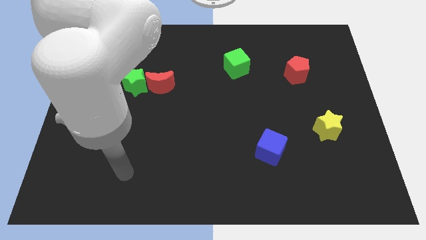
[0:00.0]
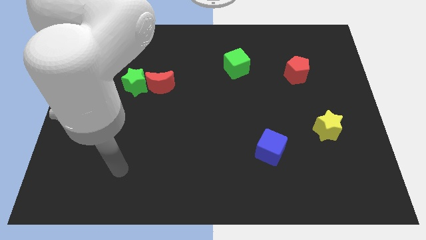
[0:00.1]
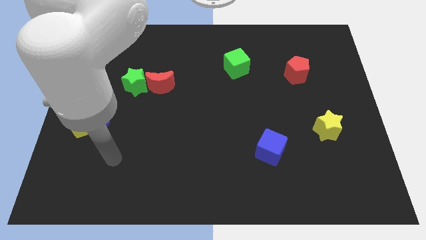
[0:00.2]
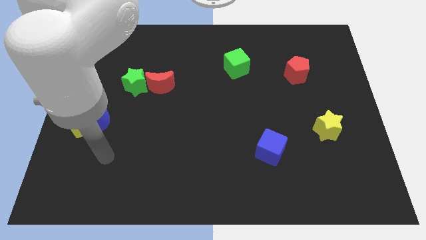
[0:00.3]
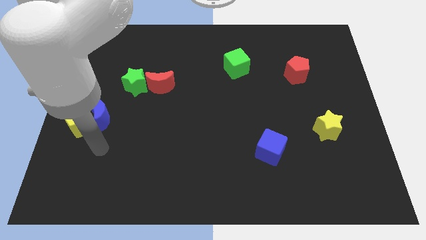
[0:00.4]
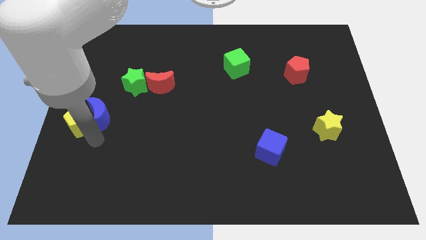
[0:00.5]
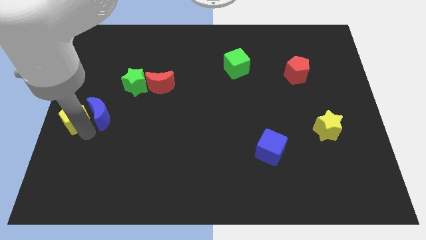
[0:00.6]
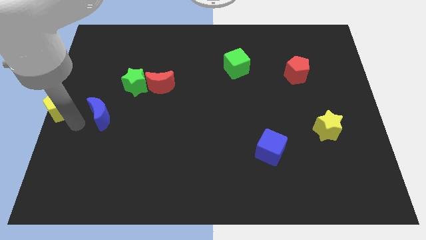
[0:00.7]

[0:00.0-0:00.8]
pull the blue moon apart from the yellow pentagon

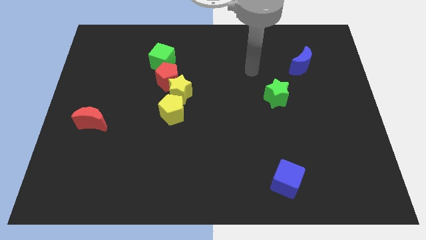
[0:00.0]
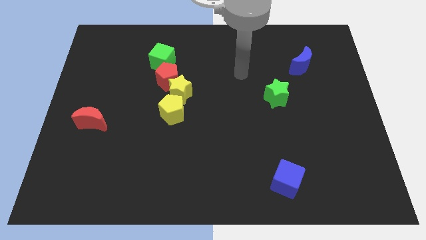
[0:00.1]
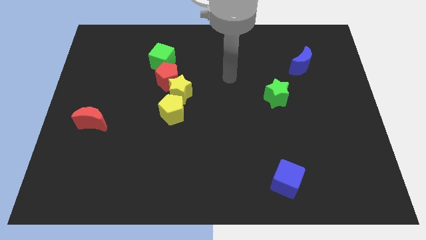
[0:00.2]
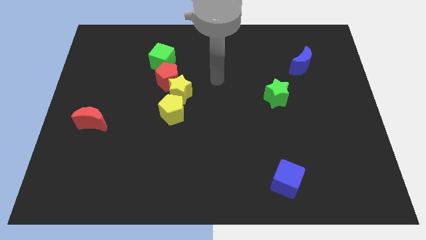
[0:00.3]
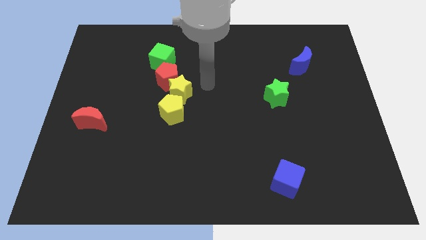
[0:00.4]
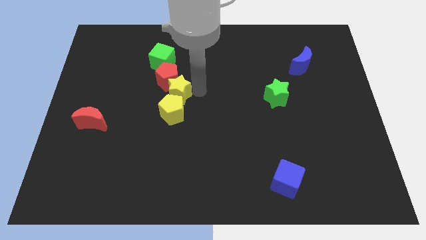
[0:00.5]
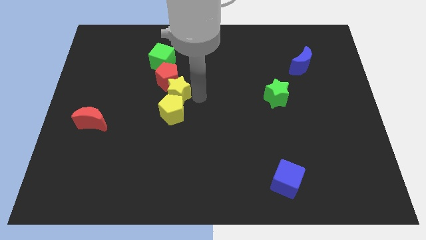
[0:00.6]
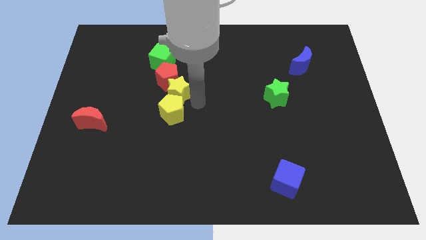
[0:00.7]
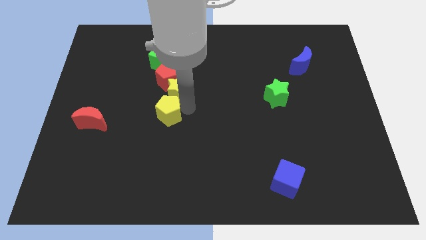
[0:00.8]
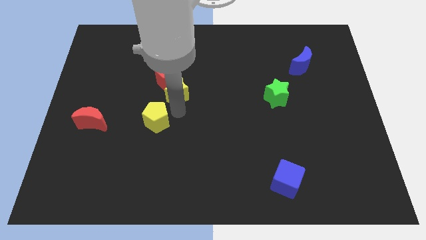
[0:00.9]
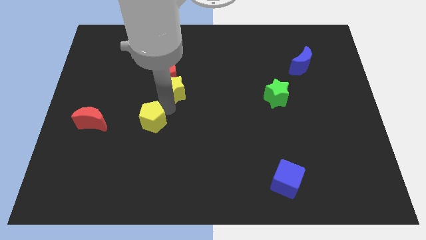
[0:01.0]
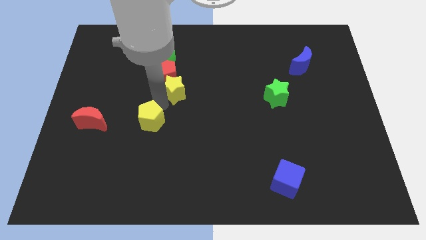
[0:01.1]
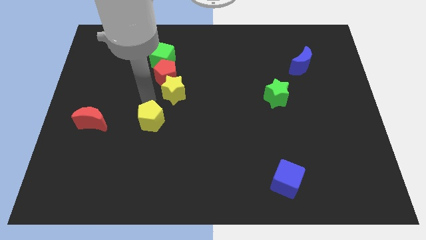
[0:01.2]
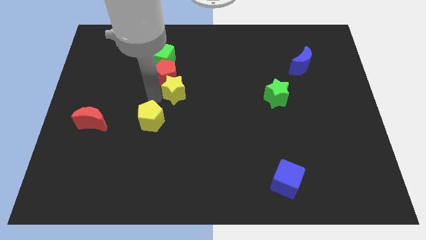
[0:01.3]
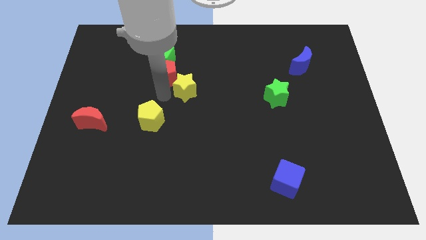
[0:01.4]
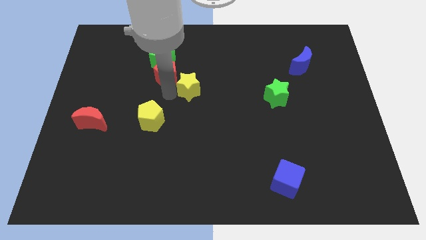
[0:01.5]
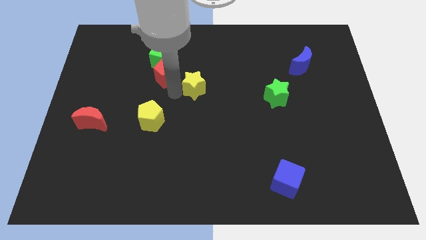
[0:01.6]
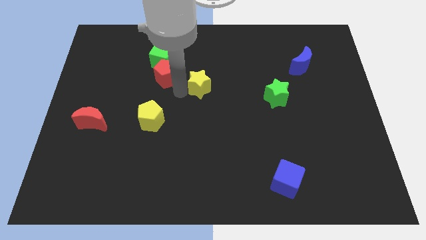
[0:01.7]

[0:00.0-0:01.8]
separate the yellow star from the red pentagon and yellow pentagon

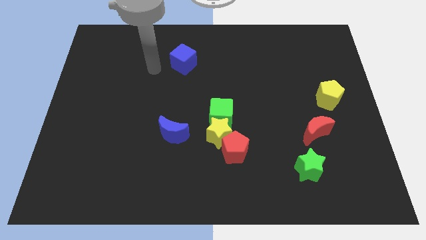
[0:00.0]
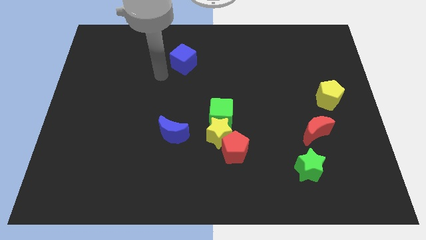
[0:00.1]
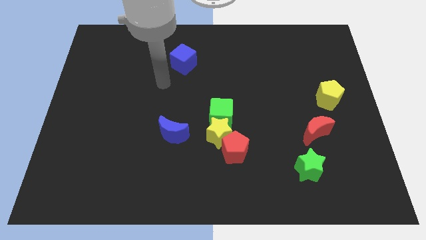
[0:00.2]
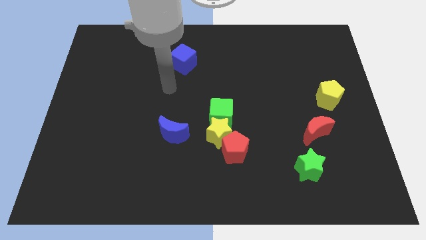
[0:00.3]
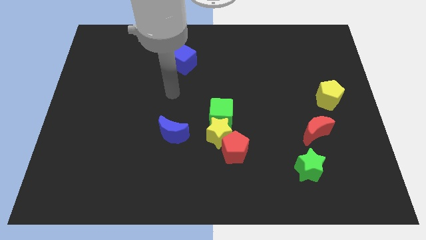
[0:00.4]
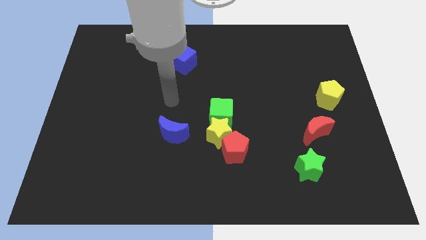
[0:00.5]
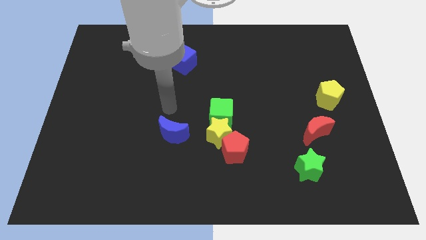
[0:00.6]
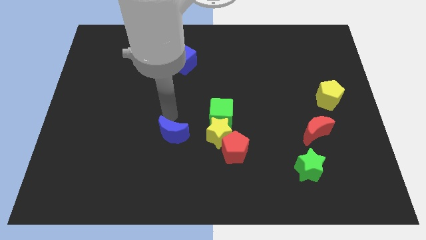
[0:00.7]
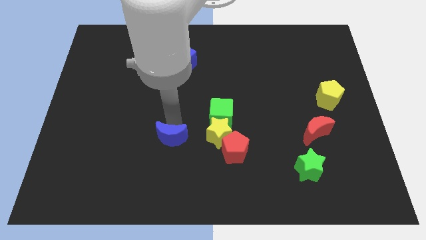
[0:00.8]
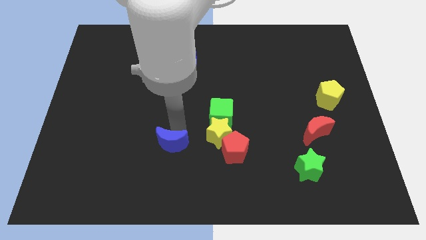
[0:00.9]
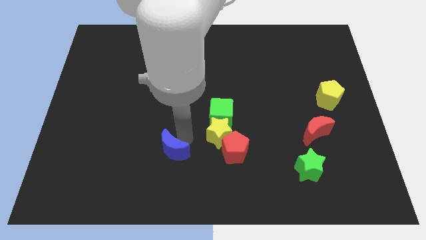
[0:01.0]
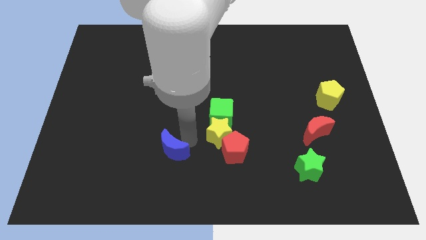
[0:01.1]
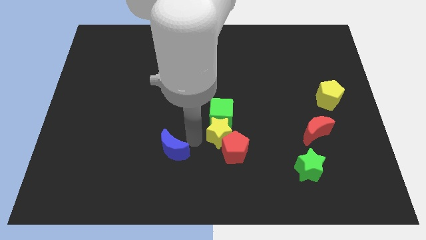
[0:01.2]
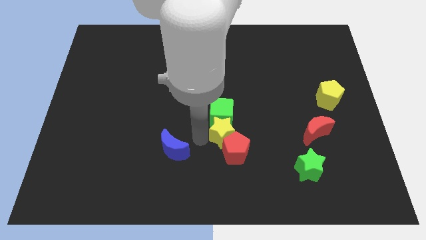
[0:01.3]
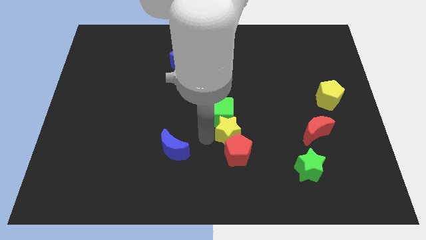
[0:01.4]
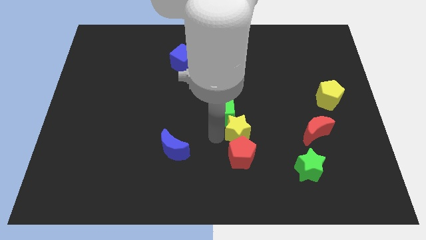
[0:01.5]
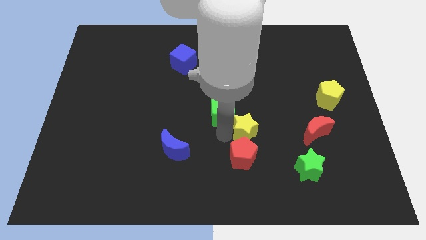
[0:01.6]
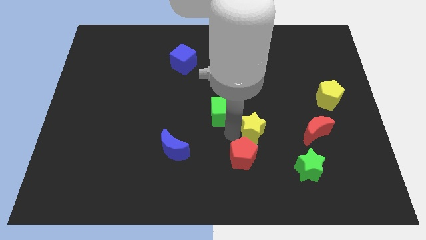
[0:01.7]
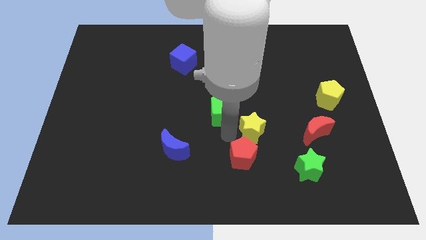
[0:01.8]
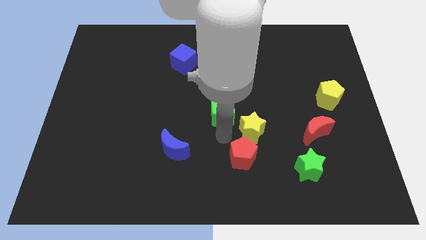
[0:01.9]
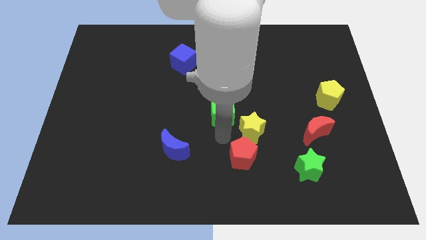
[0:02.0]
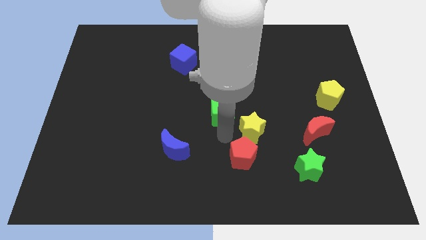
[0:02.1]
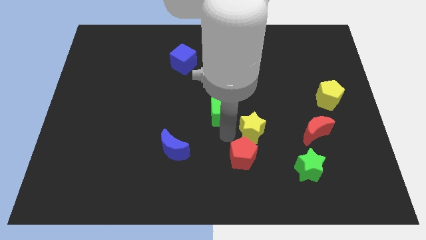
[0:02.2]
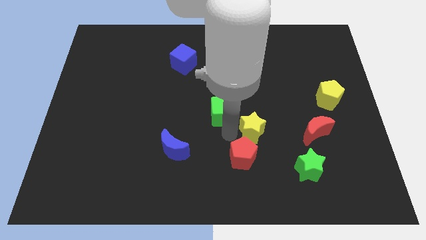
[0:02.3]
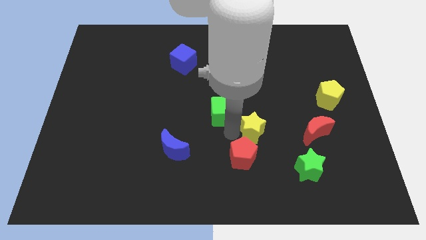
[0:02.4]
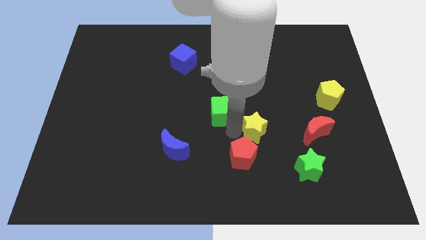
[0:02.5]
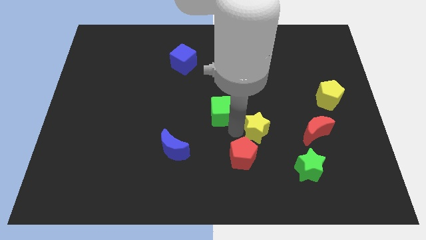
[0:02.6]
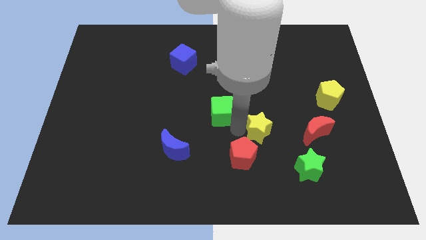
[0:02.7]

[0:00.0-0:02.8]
separate the yellow star from the red pentagon, green cube, and blue moon

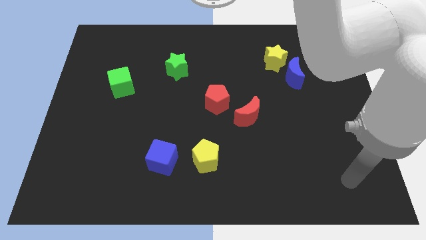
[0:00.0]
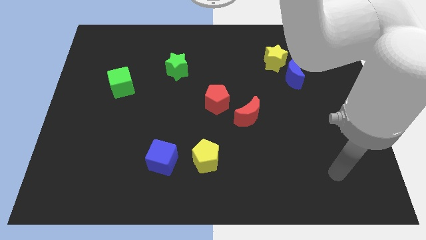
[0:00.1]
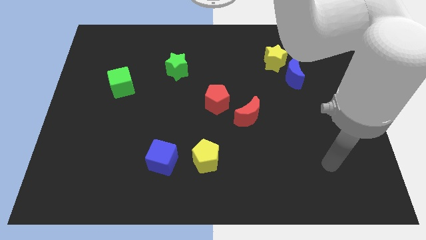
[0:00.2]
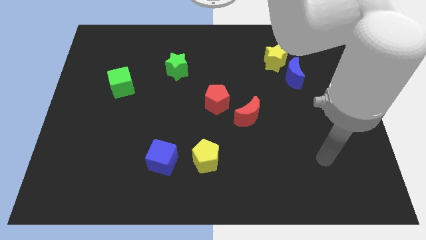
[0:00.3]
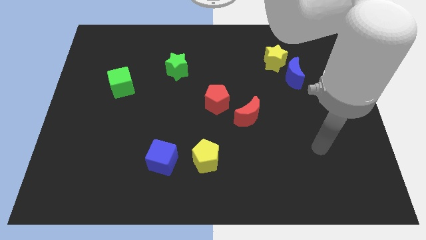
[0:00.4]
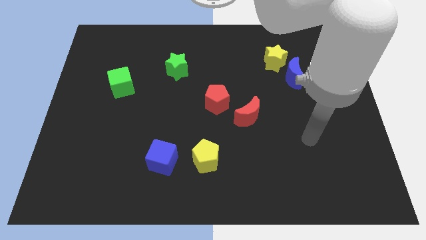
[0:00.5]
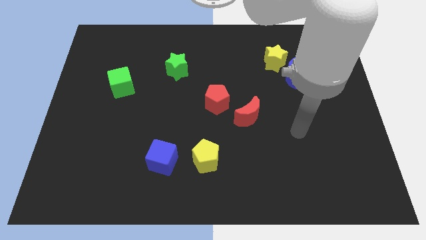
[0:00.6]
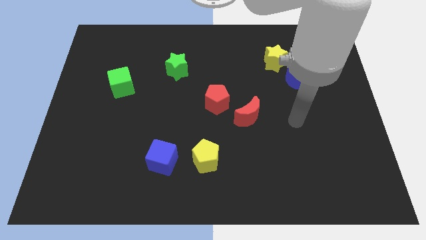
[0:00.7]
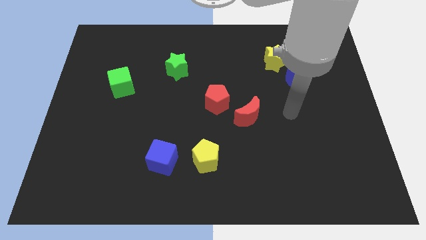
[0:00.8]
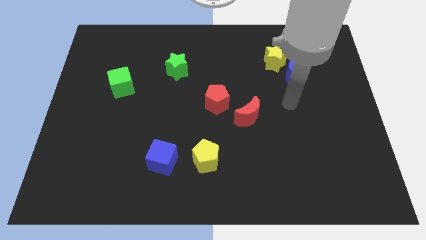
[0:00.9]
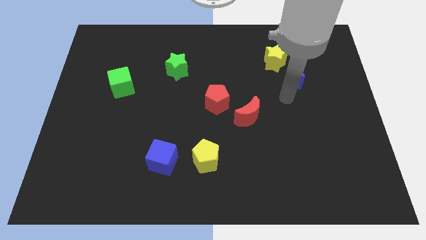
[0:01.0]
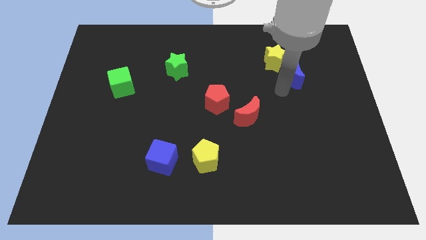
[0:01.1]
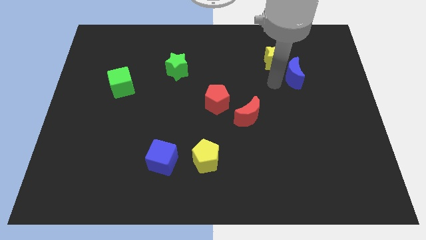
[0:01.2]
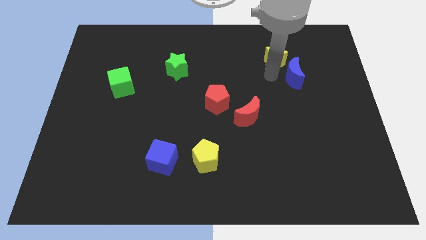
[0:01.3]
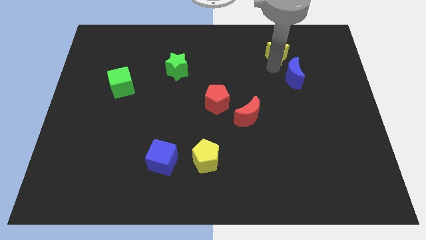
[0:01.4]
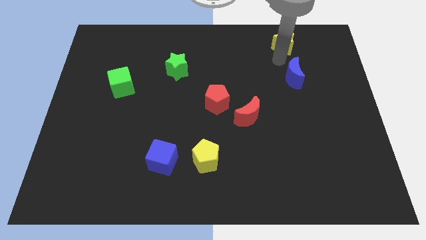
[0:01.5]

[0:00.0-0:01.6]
pull the blue moon apart from the yellow star

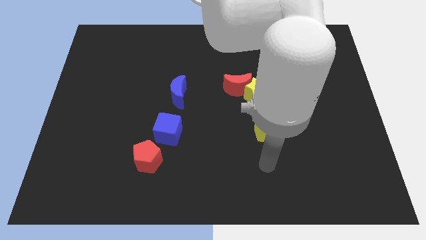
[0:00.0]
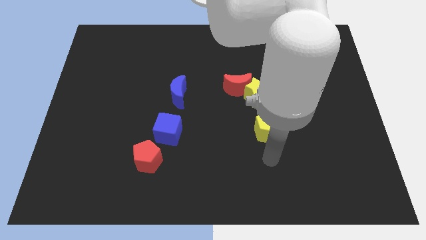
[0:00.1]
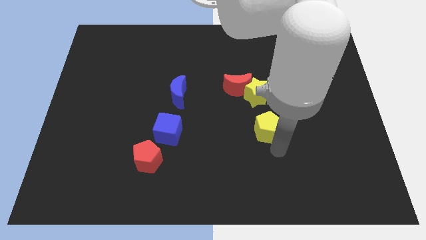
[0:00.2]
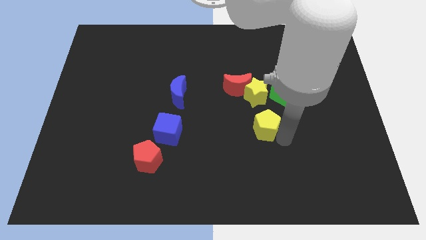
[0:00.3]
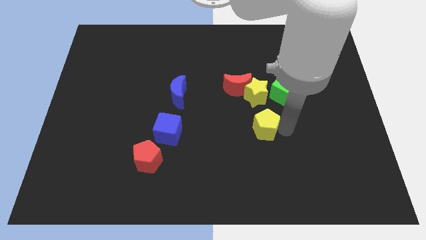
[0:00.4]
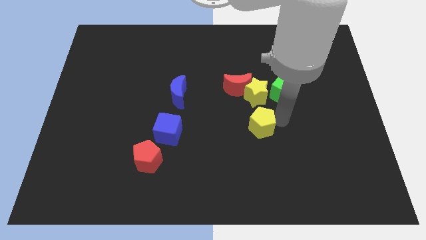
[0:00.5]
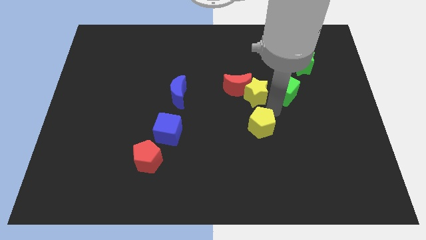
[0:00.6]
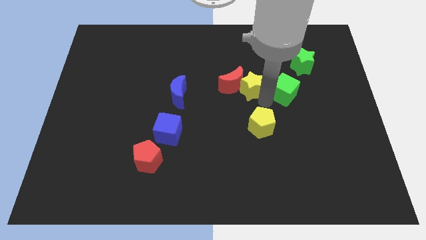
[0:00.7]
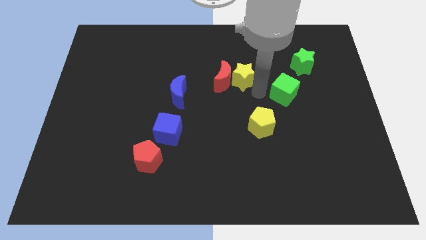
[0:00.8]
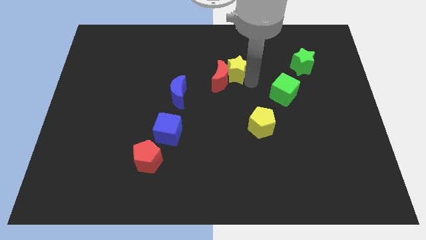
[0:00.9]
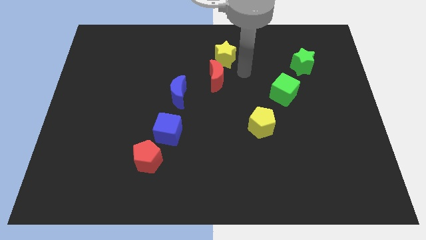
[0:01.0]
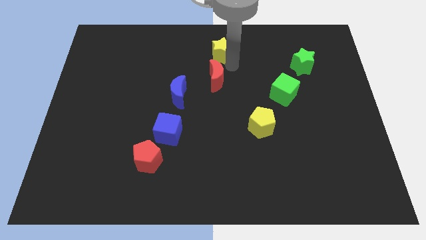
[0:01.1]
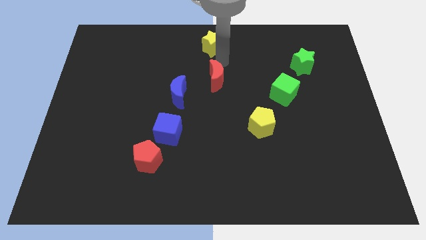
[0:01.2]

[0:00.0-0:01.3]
move the red moon away from the yellow star

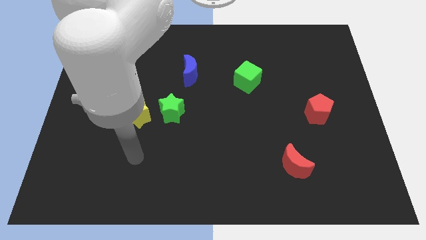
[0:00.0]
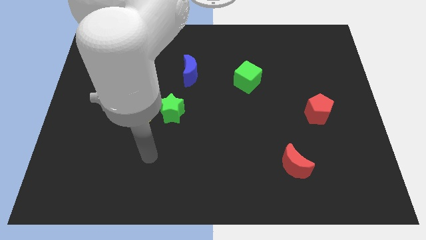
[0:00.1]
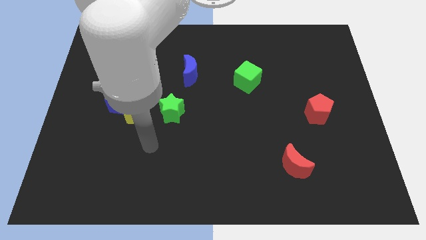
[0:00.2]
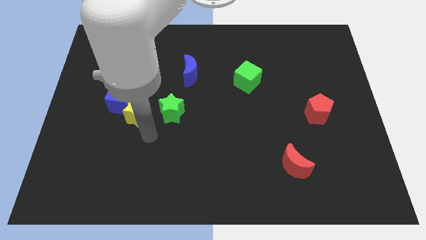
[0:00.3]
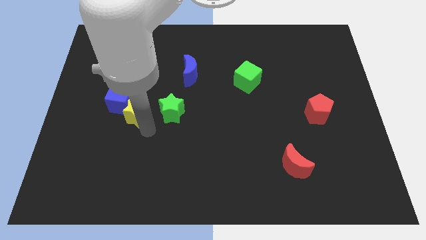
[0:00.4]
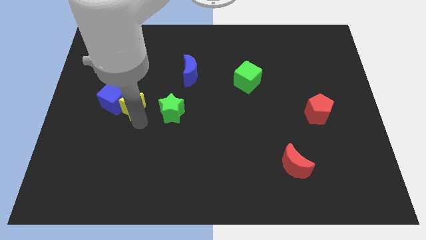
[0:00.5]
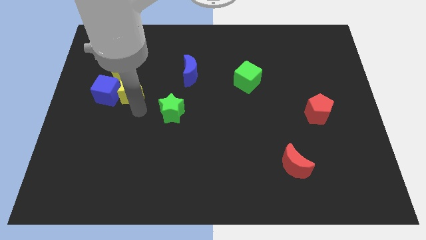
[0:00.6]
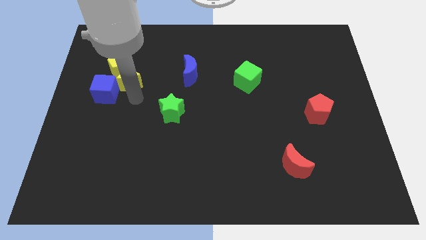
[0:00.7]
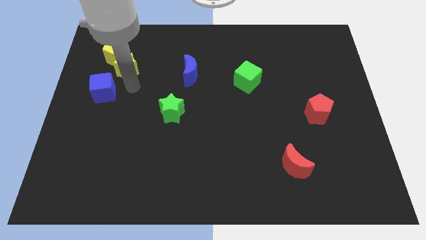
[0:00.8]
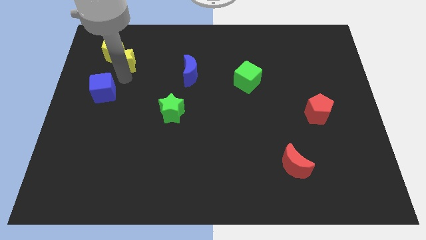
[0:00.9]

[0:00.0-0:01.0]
separate the blue cube from the yellow star
